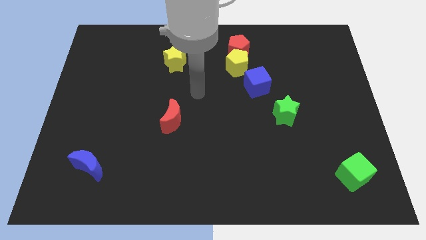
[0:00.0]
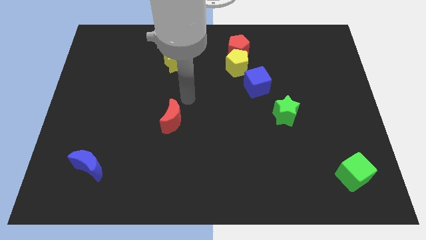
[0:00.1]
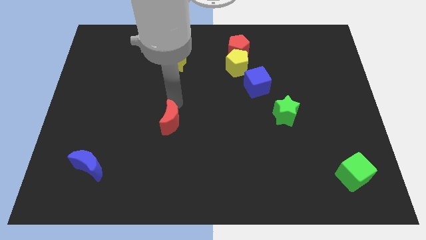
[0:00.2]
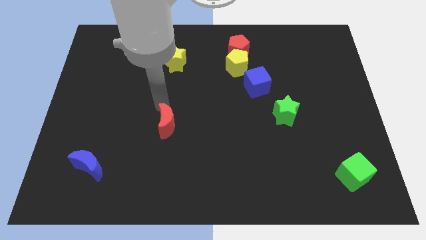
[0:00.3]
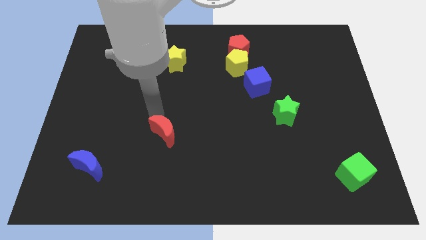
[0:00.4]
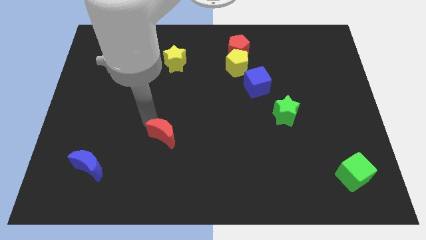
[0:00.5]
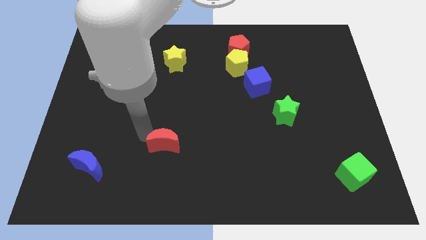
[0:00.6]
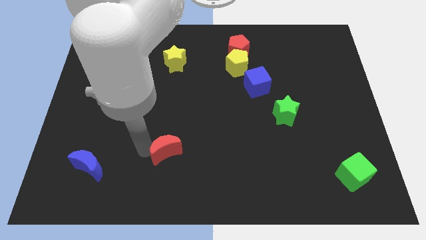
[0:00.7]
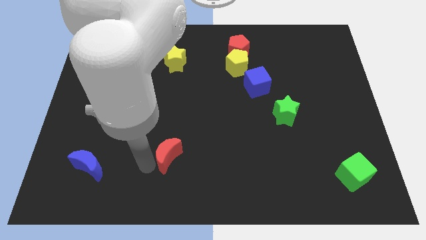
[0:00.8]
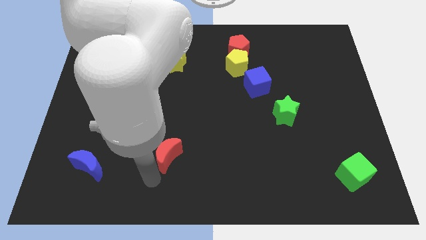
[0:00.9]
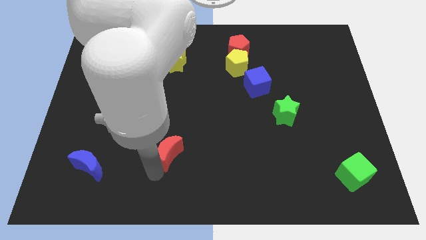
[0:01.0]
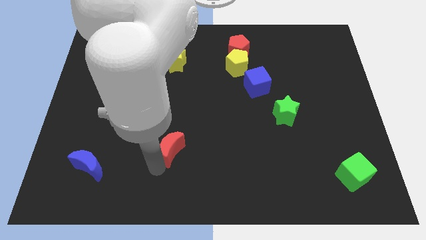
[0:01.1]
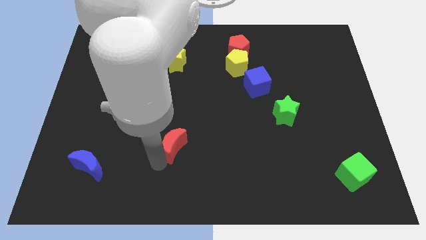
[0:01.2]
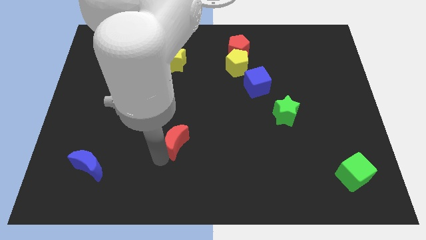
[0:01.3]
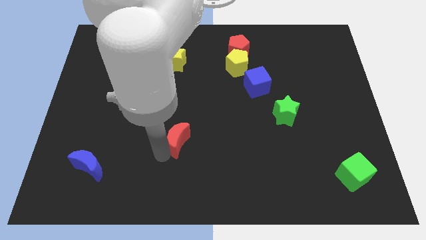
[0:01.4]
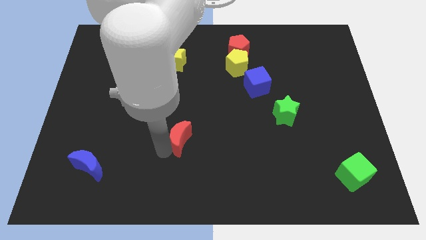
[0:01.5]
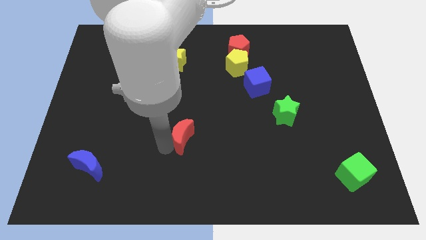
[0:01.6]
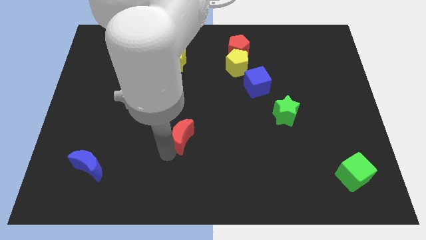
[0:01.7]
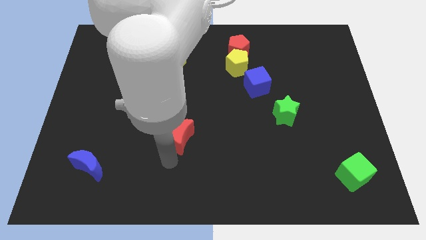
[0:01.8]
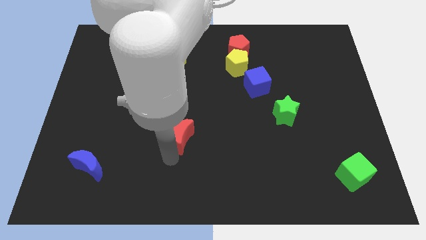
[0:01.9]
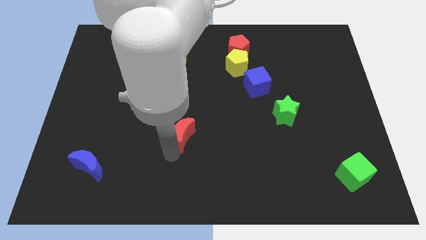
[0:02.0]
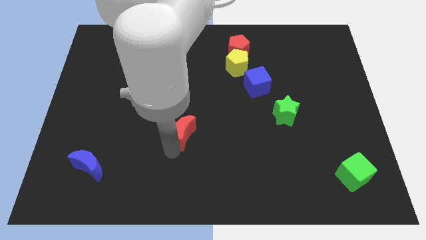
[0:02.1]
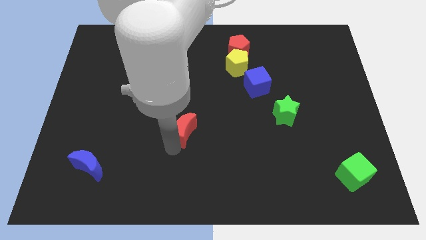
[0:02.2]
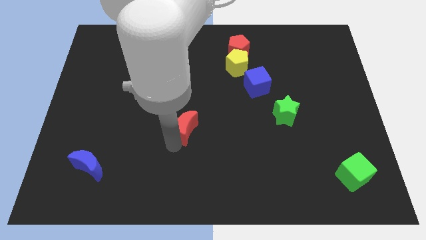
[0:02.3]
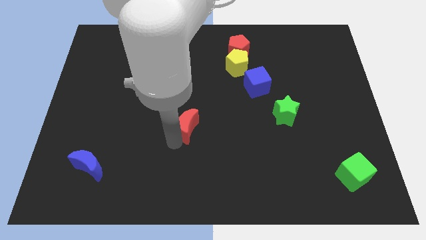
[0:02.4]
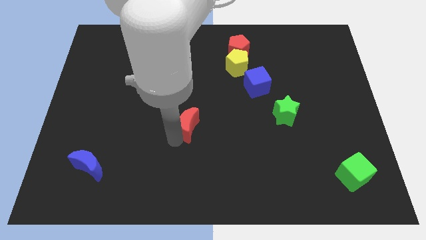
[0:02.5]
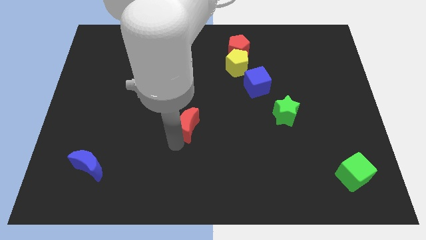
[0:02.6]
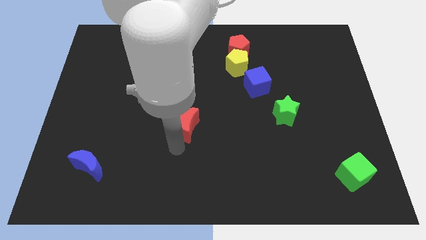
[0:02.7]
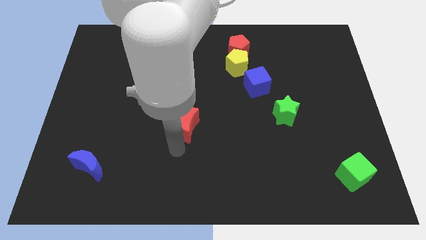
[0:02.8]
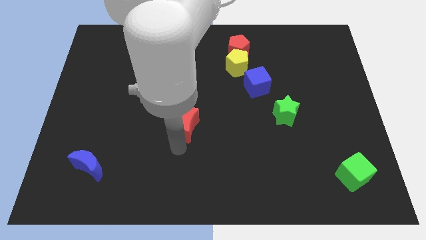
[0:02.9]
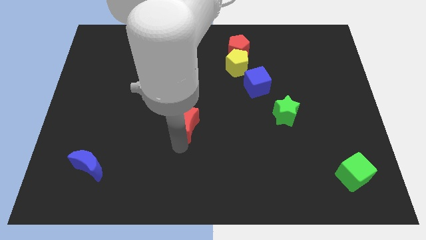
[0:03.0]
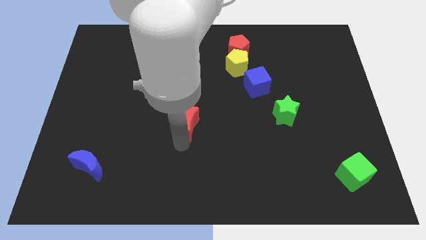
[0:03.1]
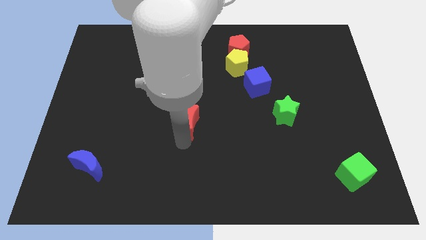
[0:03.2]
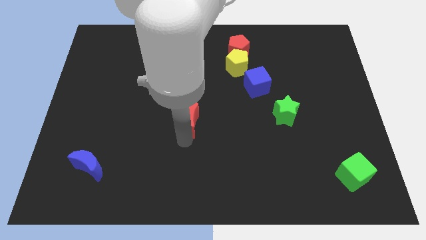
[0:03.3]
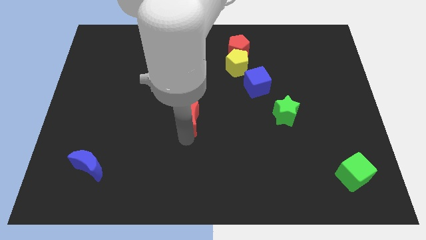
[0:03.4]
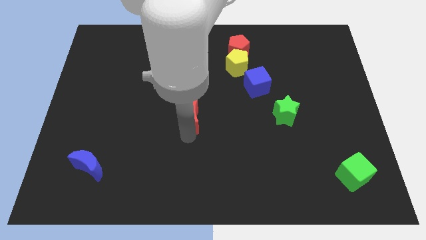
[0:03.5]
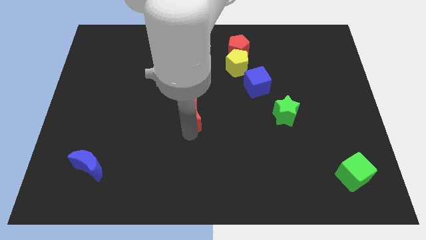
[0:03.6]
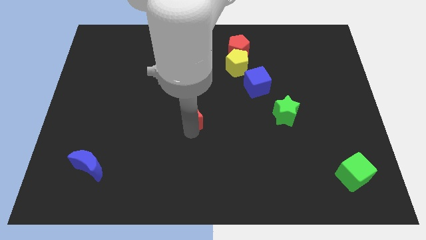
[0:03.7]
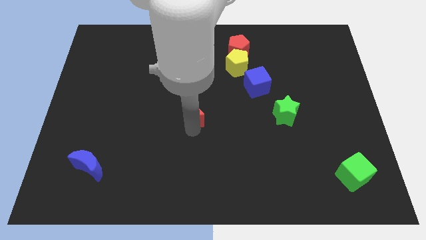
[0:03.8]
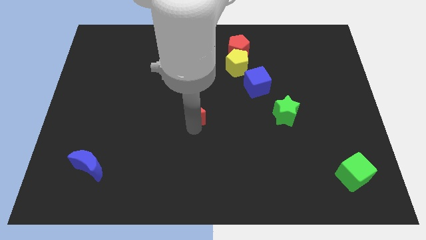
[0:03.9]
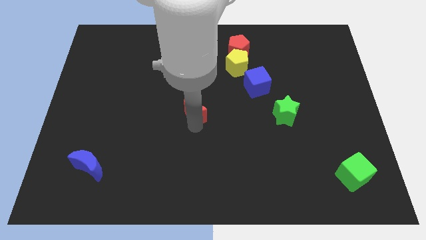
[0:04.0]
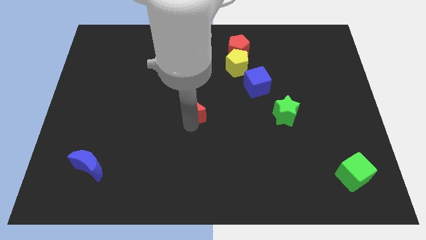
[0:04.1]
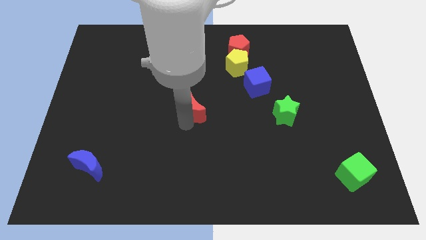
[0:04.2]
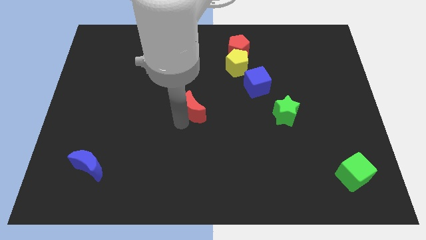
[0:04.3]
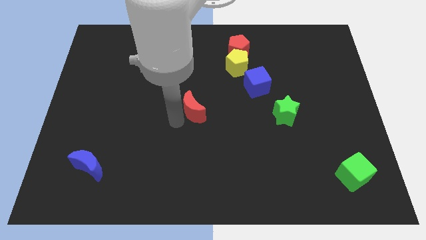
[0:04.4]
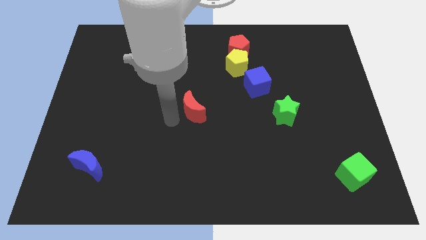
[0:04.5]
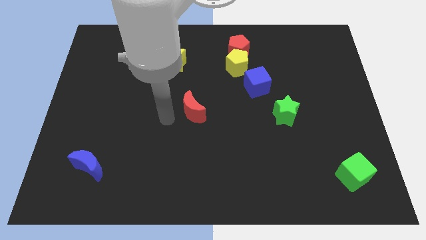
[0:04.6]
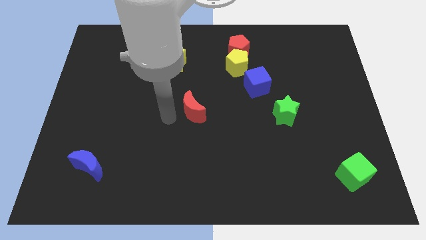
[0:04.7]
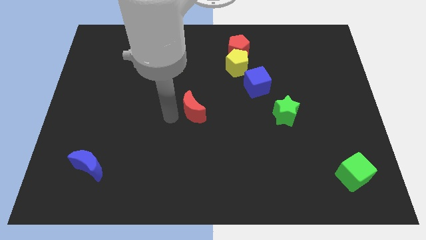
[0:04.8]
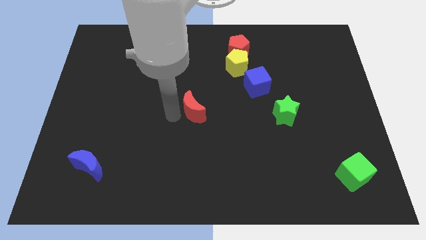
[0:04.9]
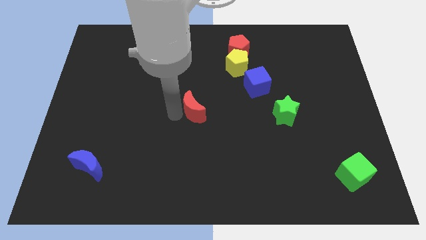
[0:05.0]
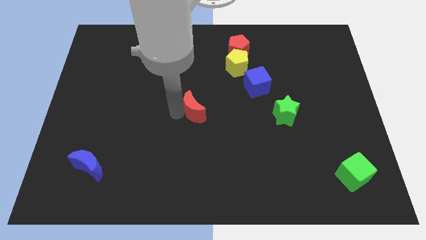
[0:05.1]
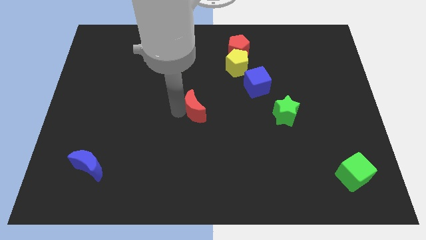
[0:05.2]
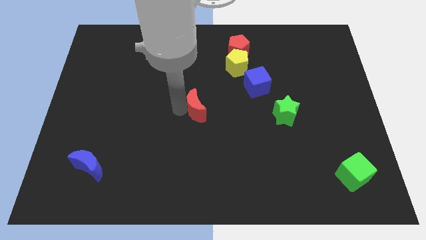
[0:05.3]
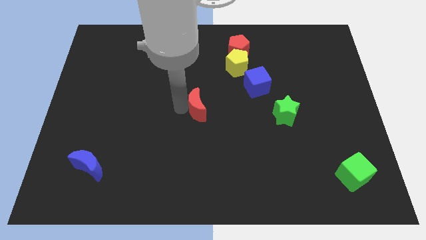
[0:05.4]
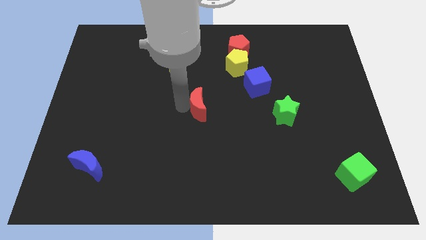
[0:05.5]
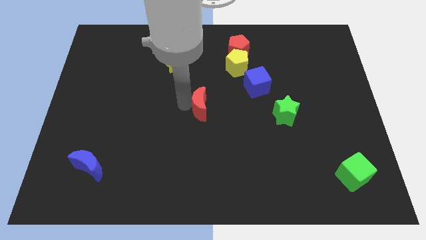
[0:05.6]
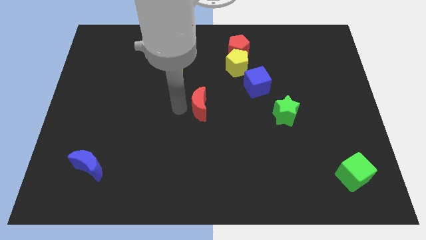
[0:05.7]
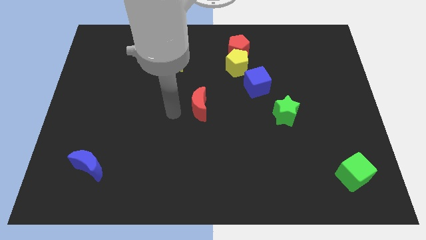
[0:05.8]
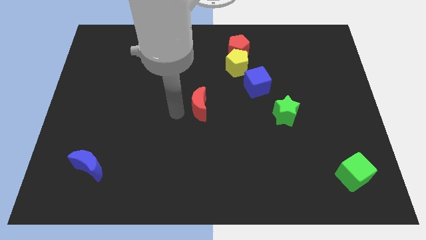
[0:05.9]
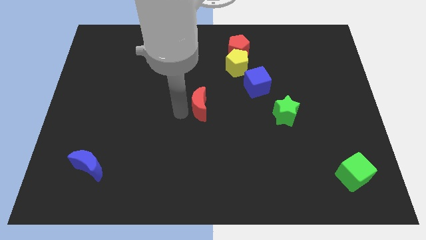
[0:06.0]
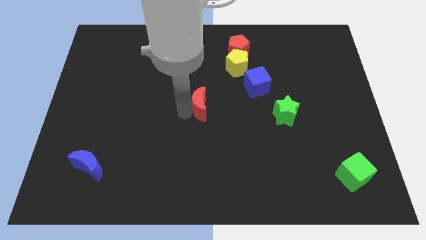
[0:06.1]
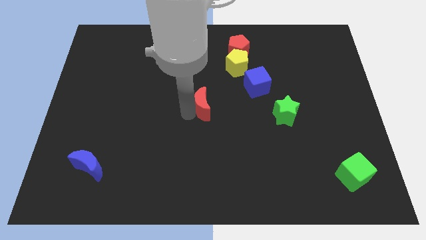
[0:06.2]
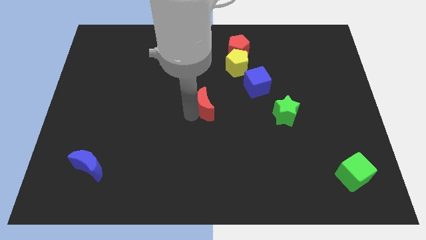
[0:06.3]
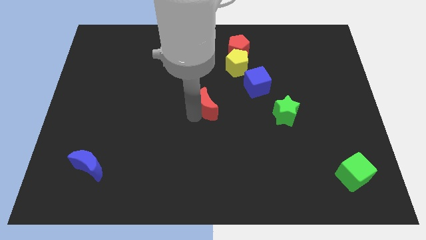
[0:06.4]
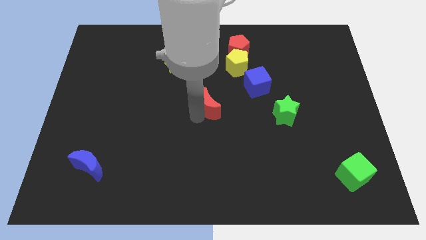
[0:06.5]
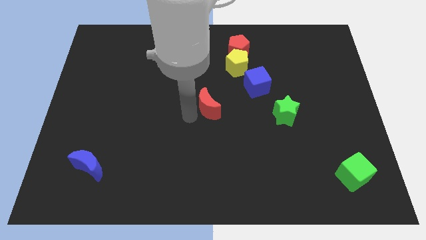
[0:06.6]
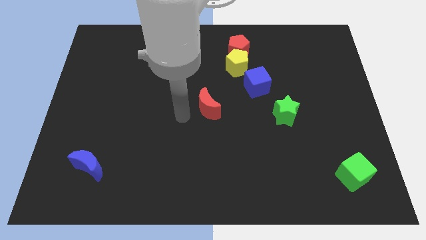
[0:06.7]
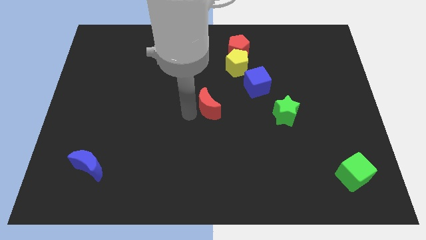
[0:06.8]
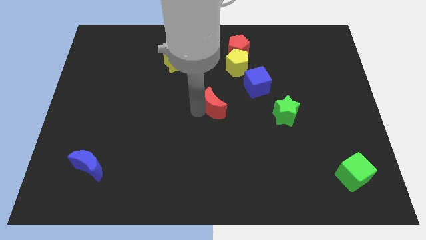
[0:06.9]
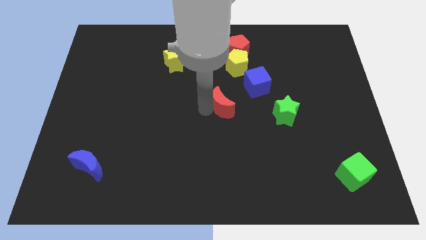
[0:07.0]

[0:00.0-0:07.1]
move the red moon below the yellow pentagon
